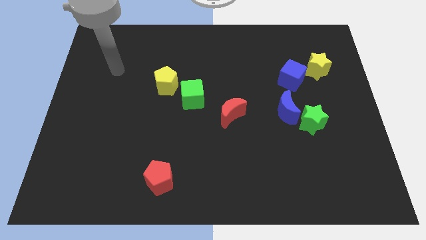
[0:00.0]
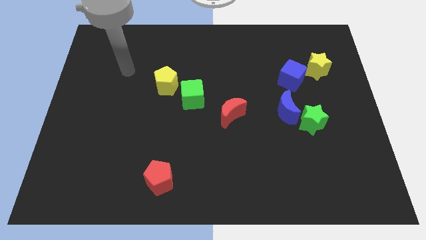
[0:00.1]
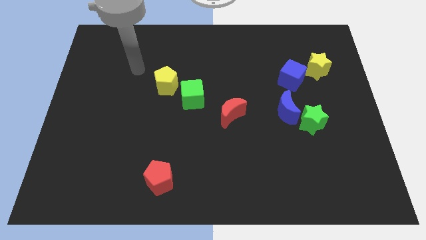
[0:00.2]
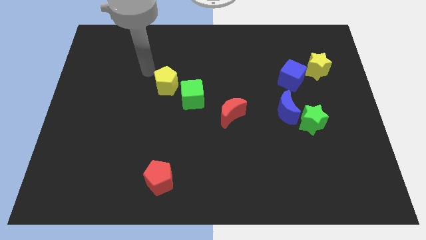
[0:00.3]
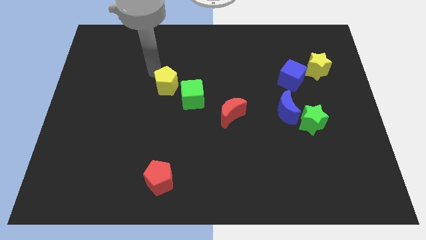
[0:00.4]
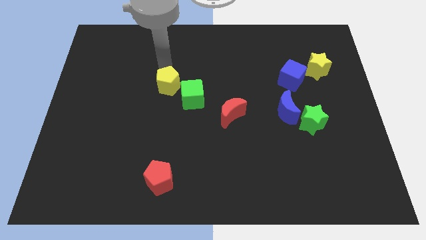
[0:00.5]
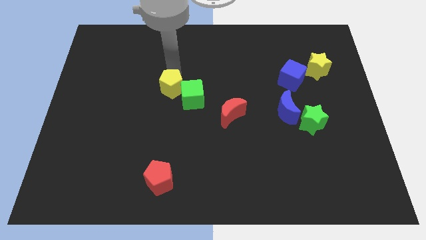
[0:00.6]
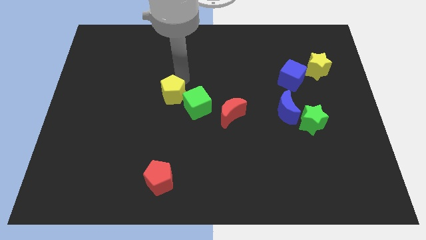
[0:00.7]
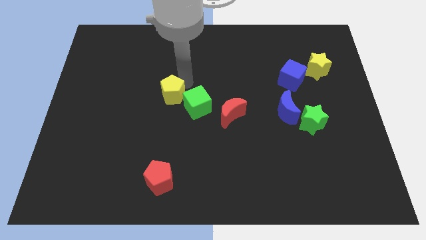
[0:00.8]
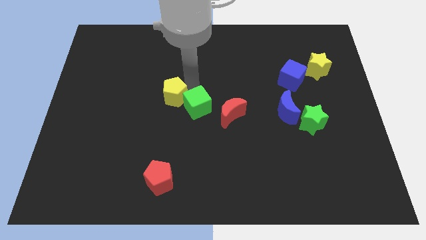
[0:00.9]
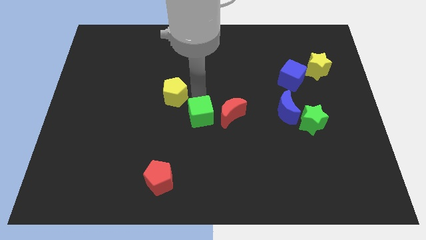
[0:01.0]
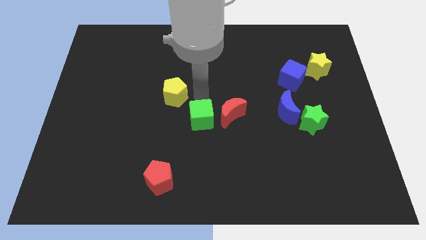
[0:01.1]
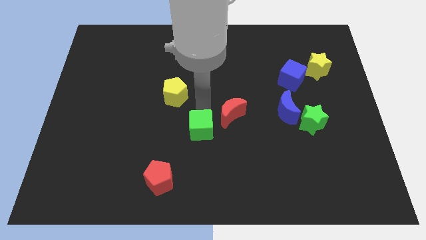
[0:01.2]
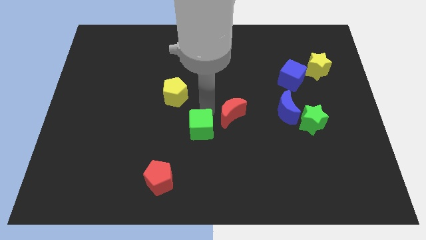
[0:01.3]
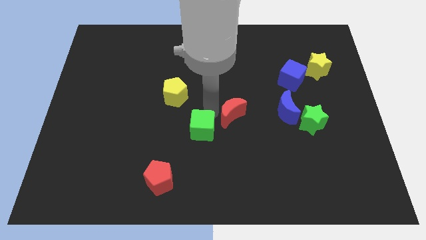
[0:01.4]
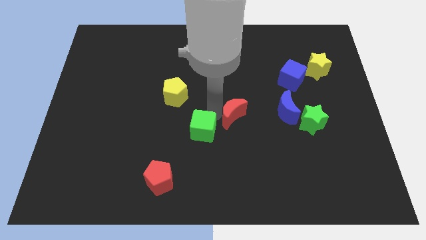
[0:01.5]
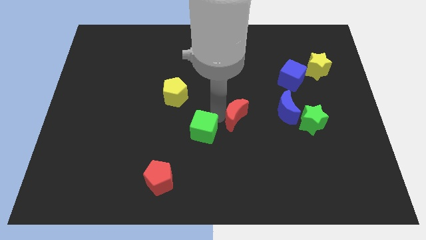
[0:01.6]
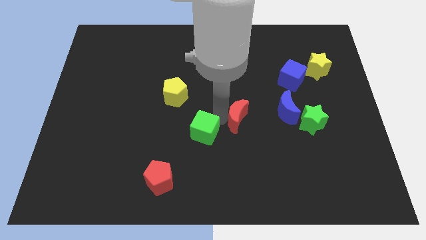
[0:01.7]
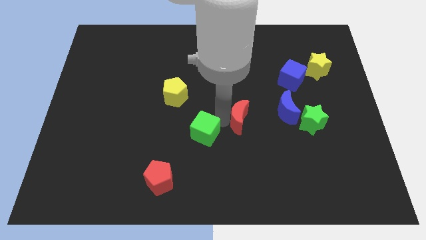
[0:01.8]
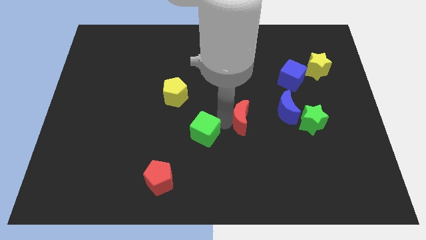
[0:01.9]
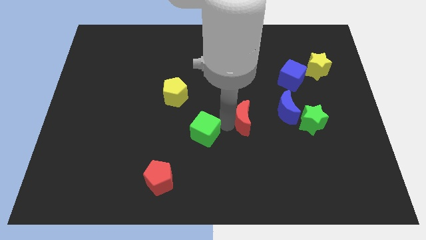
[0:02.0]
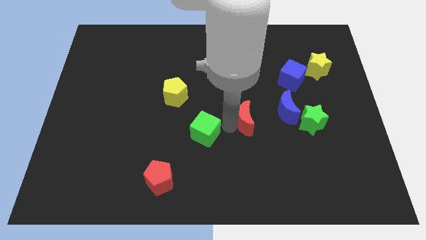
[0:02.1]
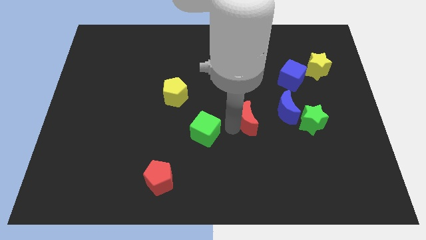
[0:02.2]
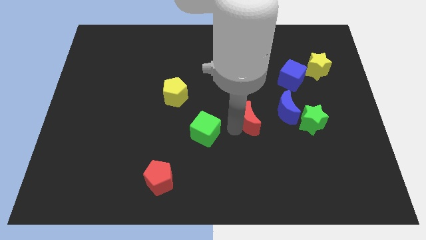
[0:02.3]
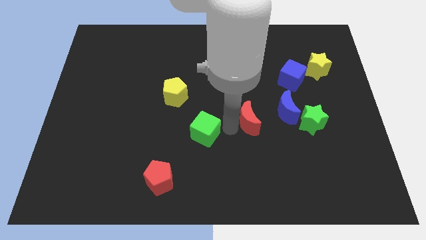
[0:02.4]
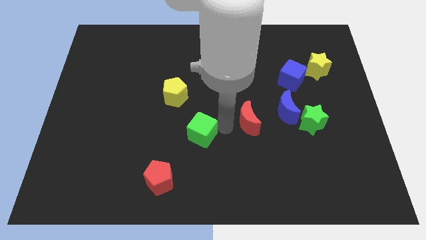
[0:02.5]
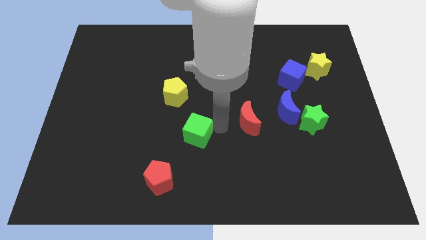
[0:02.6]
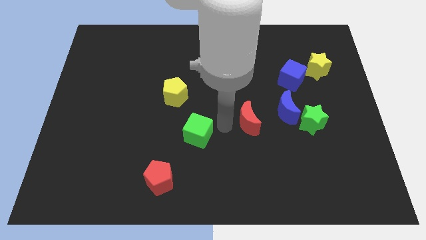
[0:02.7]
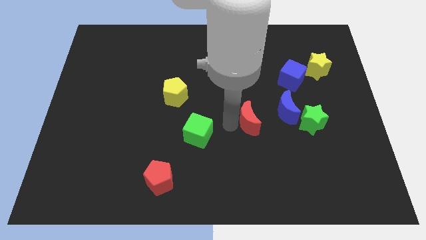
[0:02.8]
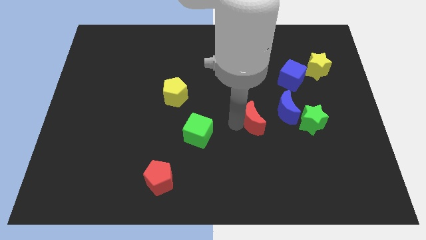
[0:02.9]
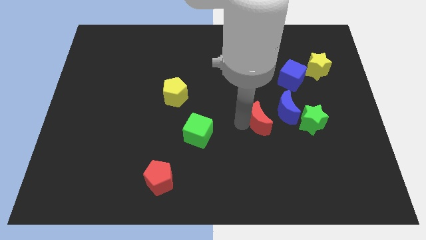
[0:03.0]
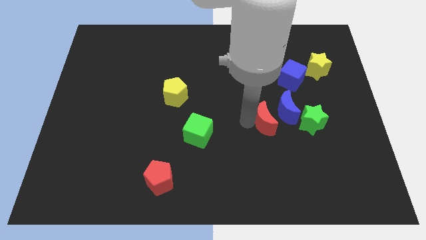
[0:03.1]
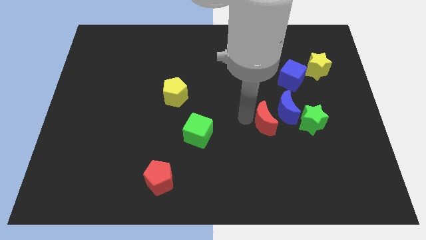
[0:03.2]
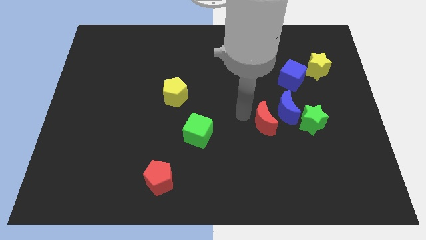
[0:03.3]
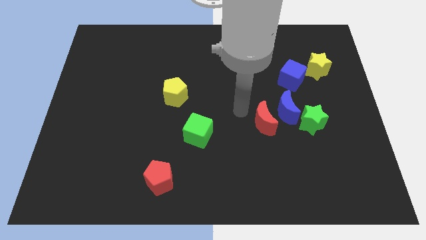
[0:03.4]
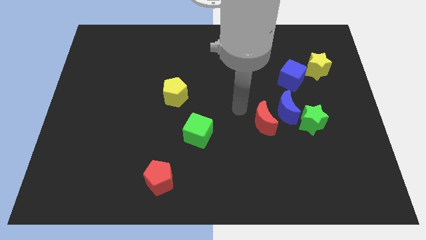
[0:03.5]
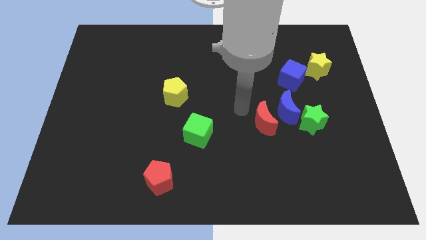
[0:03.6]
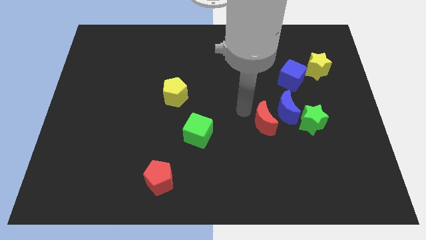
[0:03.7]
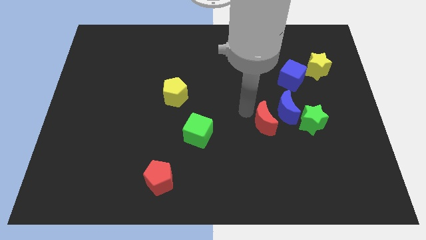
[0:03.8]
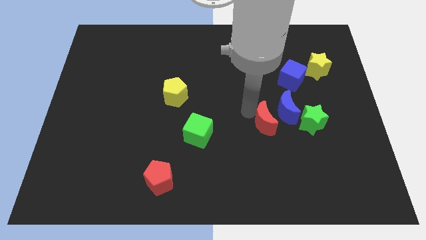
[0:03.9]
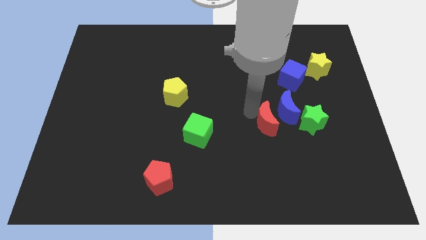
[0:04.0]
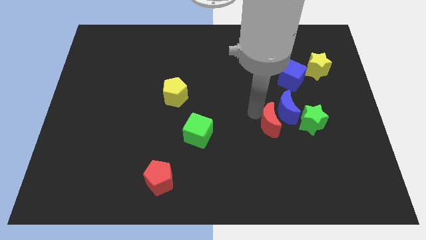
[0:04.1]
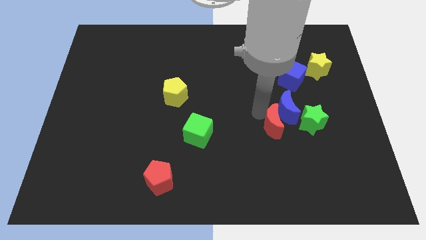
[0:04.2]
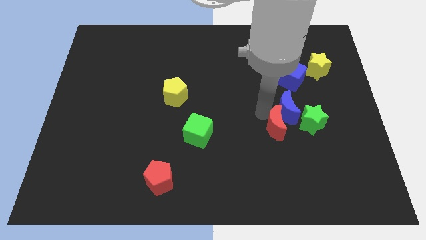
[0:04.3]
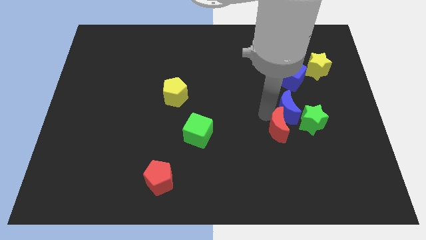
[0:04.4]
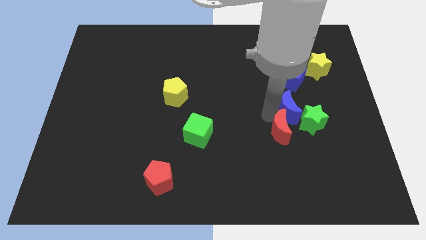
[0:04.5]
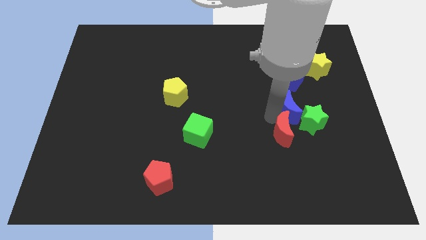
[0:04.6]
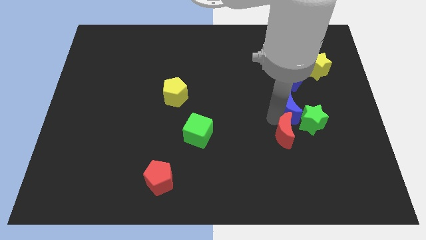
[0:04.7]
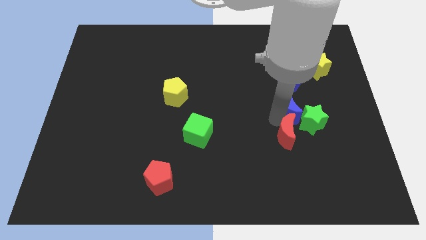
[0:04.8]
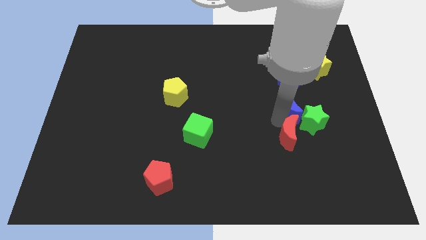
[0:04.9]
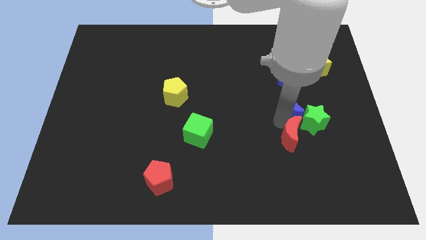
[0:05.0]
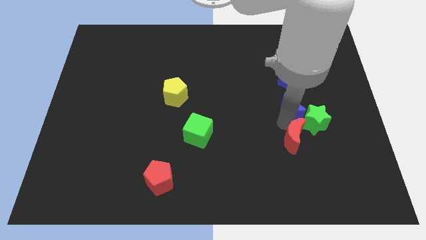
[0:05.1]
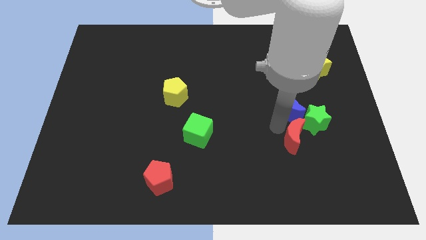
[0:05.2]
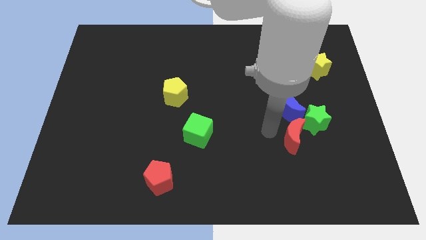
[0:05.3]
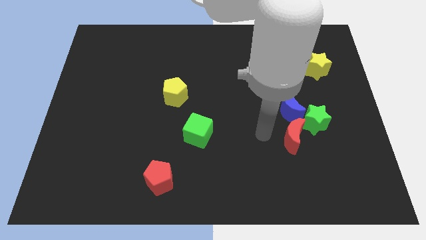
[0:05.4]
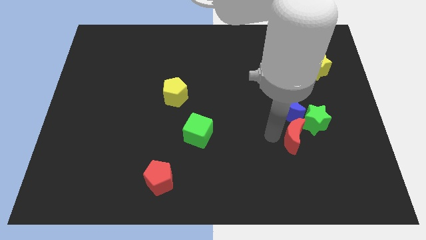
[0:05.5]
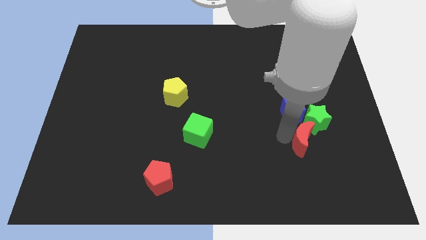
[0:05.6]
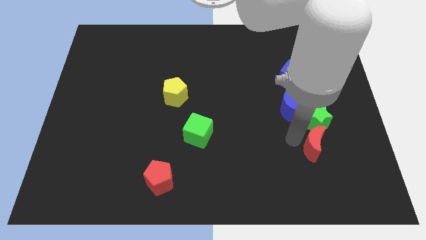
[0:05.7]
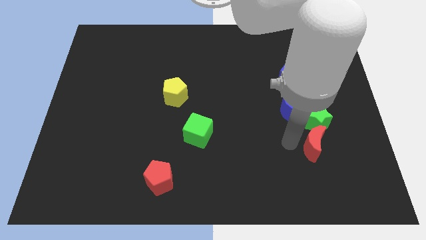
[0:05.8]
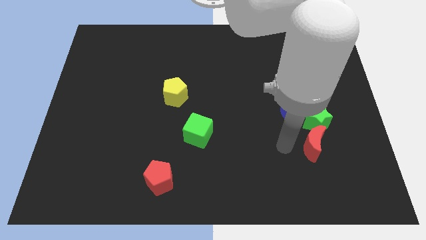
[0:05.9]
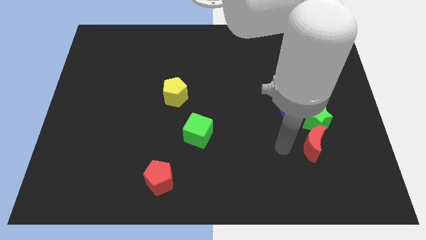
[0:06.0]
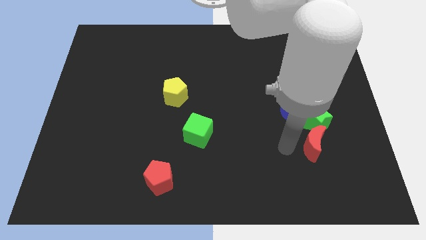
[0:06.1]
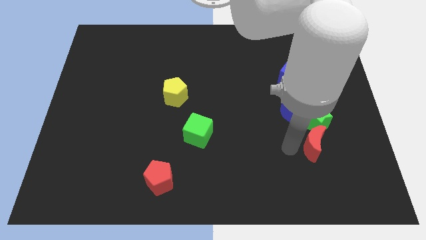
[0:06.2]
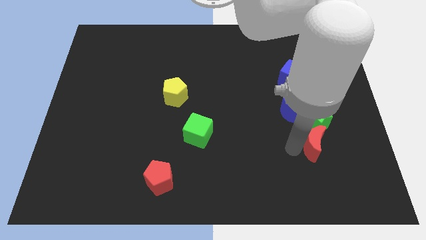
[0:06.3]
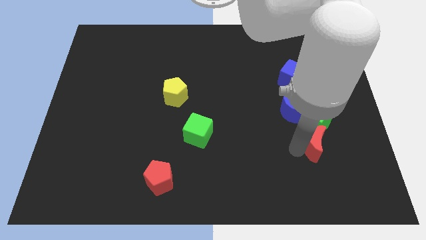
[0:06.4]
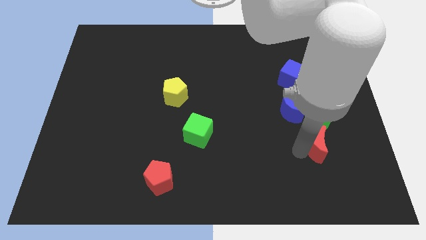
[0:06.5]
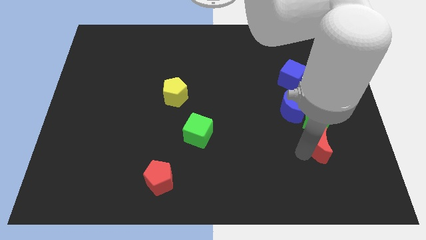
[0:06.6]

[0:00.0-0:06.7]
put the red moon to the bottom right of the green star
